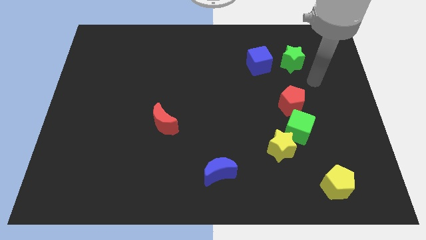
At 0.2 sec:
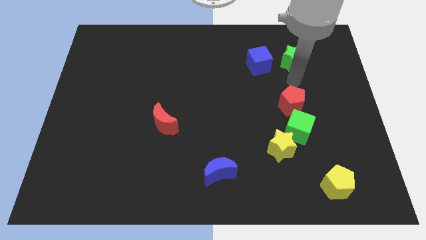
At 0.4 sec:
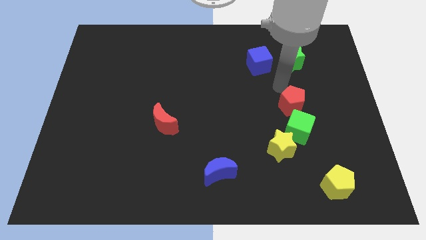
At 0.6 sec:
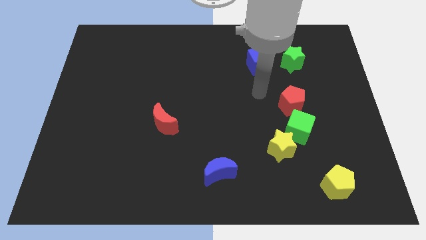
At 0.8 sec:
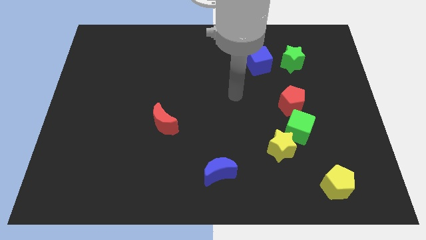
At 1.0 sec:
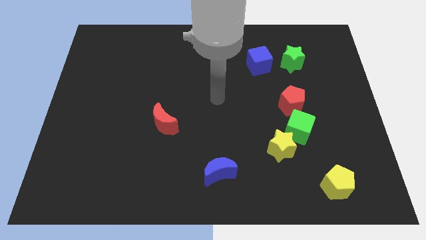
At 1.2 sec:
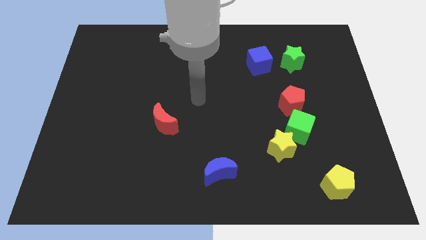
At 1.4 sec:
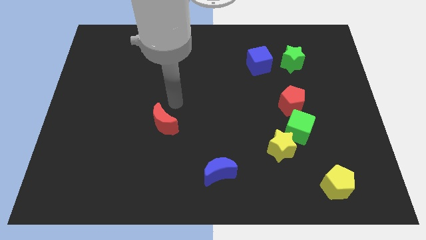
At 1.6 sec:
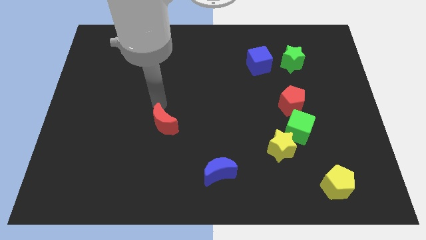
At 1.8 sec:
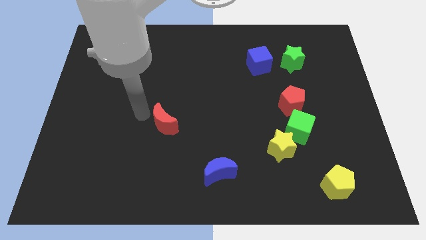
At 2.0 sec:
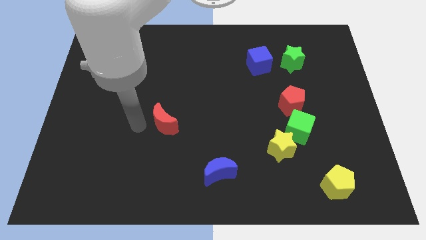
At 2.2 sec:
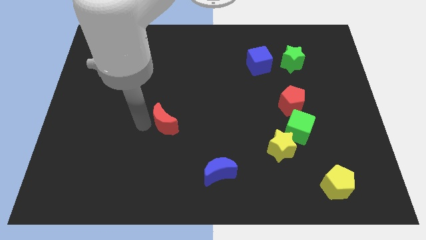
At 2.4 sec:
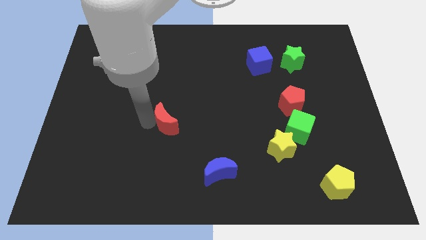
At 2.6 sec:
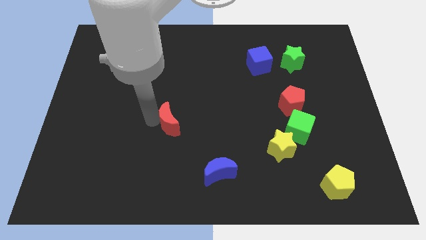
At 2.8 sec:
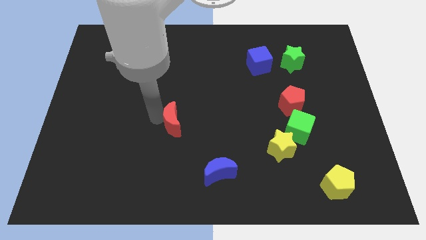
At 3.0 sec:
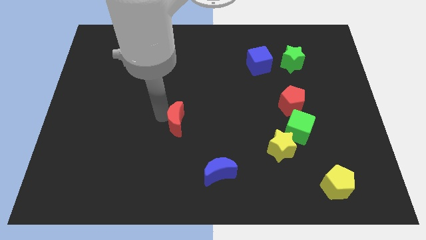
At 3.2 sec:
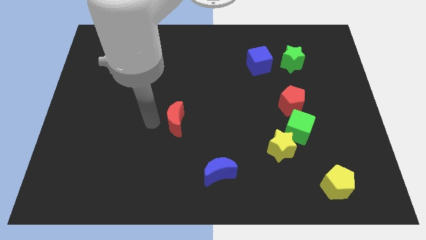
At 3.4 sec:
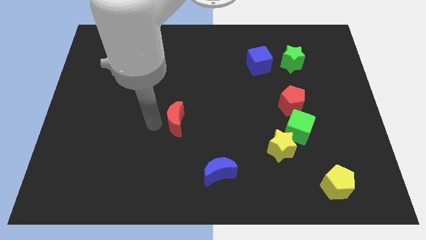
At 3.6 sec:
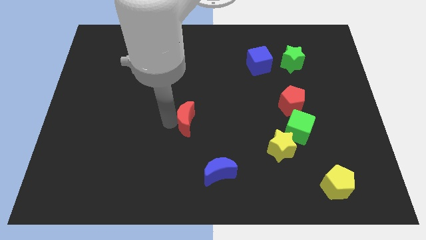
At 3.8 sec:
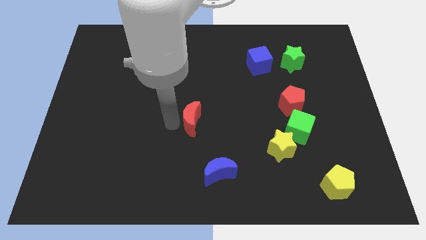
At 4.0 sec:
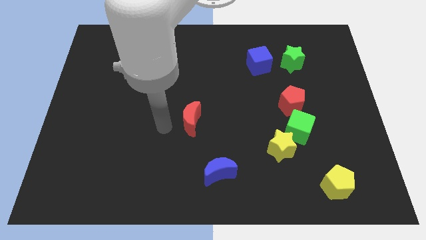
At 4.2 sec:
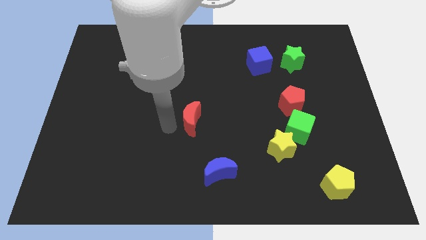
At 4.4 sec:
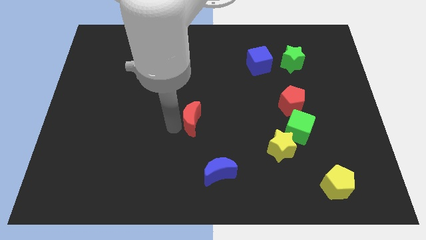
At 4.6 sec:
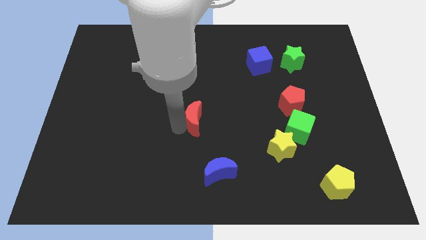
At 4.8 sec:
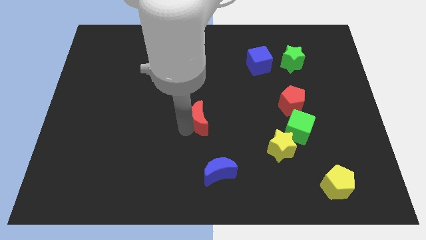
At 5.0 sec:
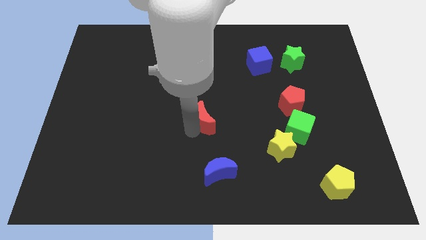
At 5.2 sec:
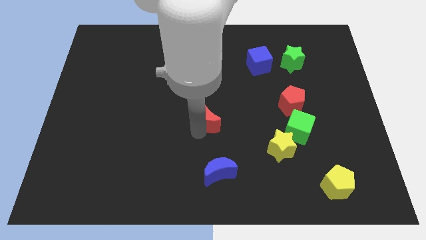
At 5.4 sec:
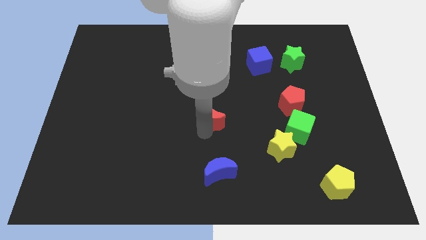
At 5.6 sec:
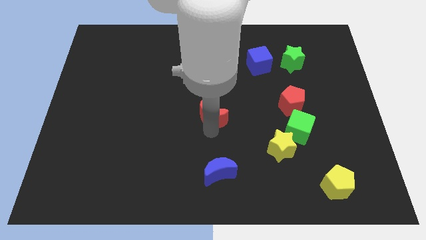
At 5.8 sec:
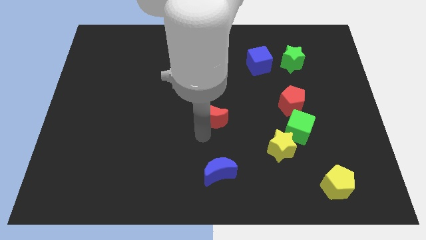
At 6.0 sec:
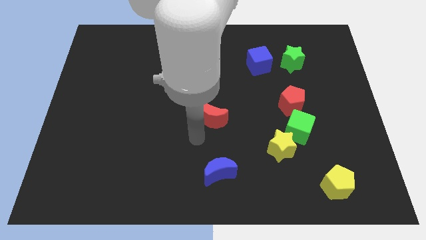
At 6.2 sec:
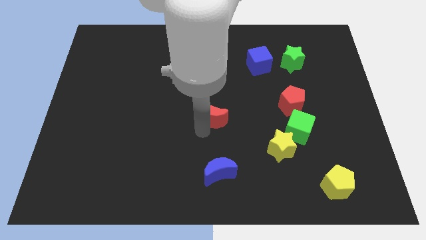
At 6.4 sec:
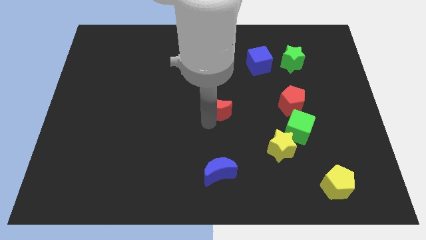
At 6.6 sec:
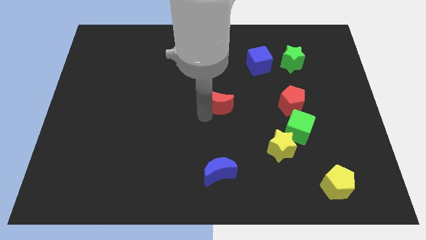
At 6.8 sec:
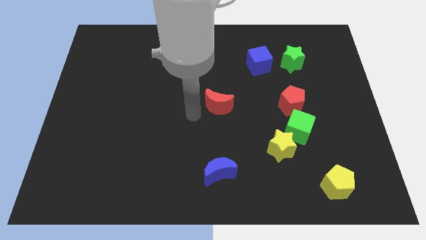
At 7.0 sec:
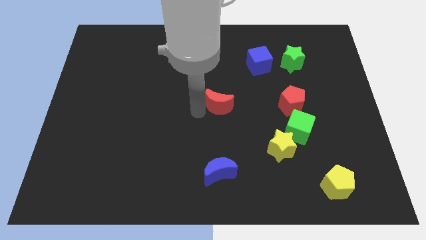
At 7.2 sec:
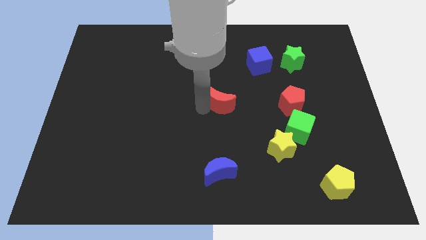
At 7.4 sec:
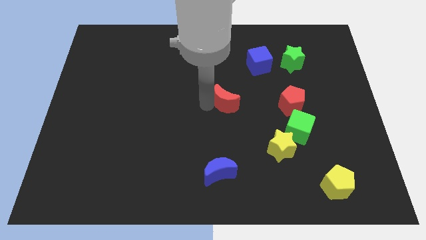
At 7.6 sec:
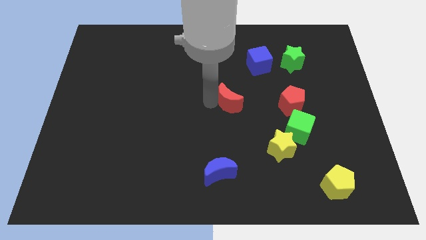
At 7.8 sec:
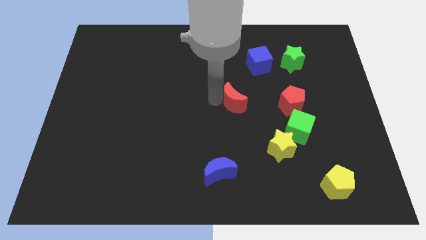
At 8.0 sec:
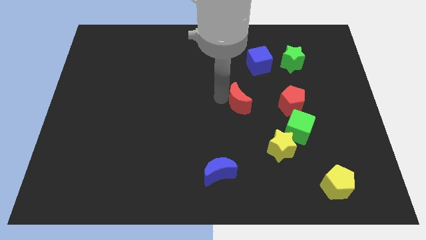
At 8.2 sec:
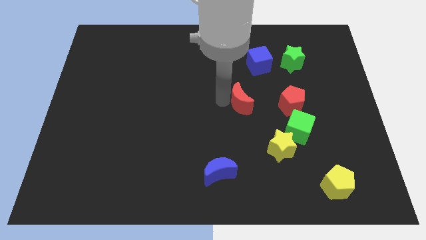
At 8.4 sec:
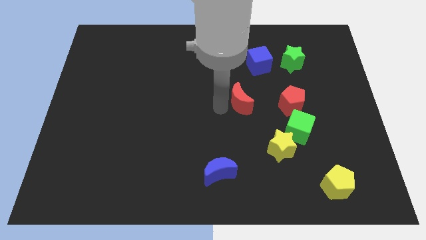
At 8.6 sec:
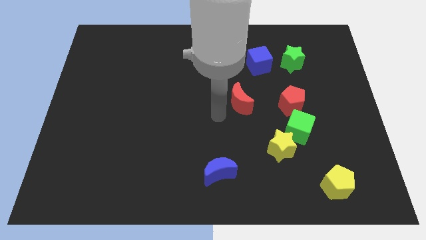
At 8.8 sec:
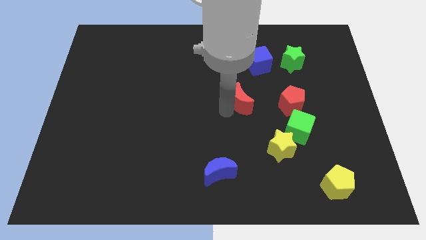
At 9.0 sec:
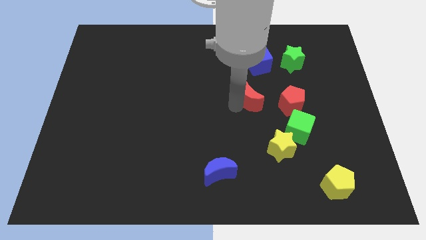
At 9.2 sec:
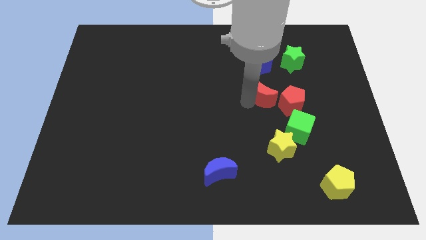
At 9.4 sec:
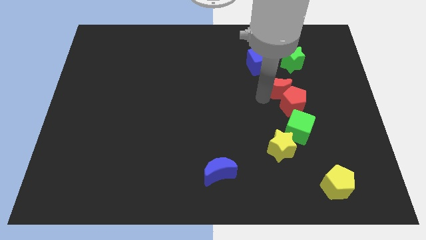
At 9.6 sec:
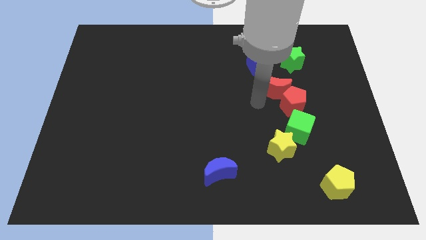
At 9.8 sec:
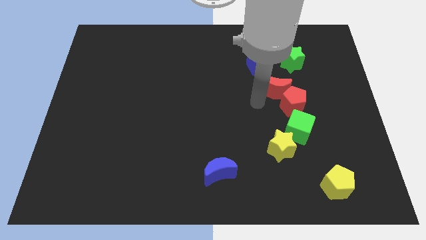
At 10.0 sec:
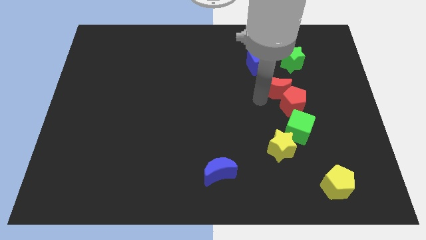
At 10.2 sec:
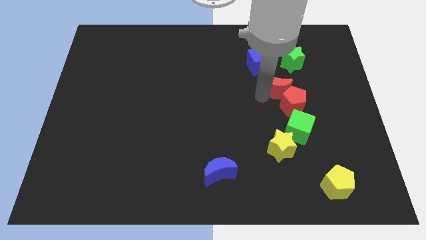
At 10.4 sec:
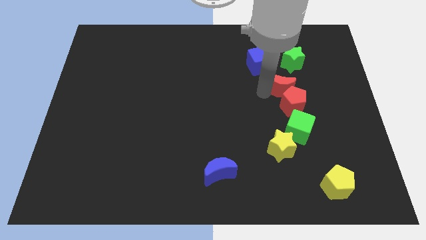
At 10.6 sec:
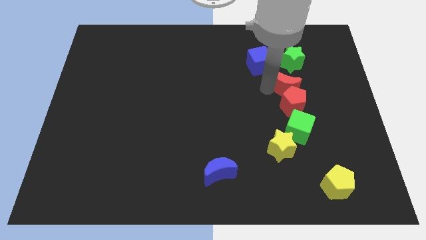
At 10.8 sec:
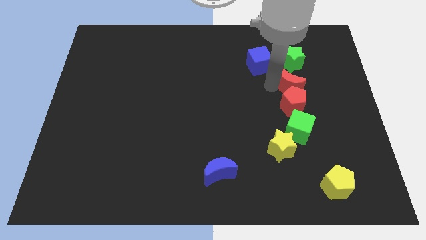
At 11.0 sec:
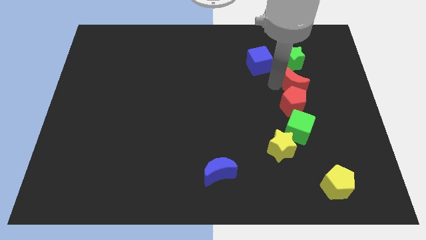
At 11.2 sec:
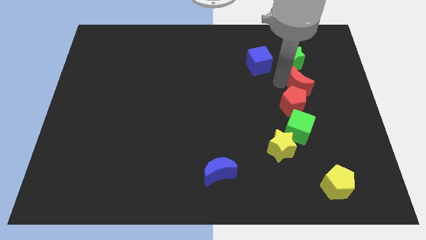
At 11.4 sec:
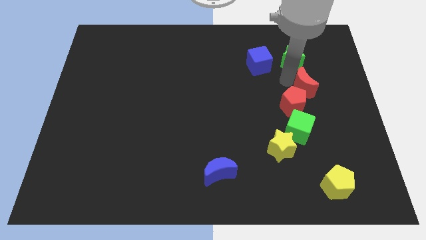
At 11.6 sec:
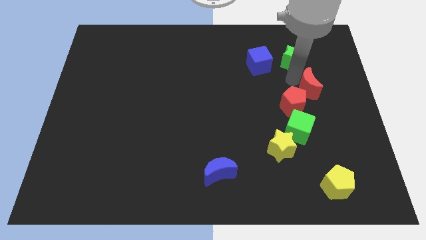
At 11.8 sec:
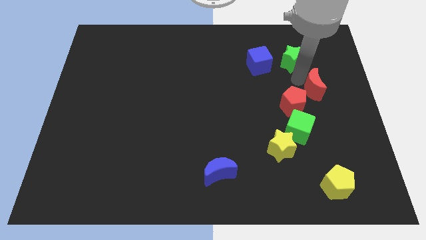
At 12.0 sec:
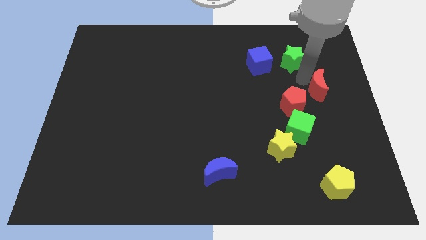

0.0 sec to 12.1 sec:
put the red moon to the right side of the board
